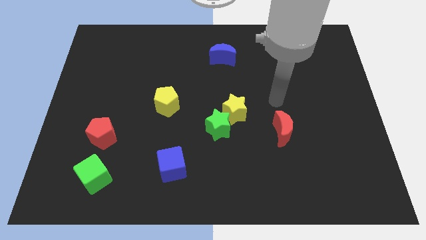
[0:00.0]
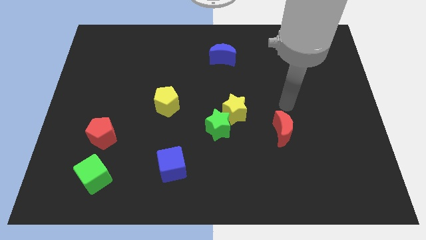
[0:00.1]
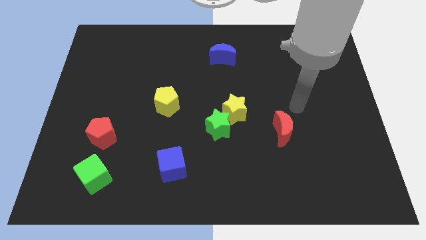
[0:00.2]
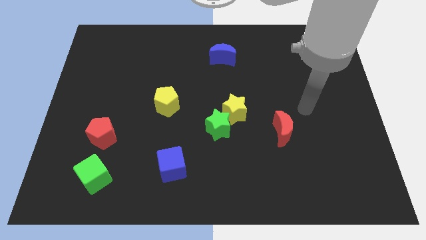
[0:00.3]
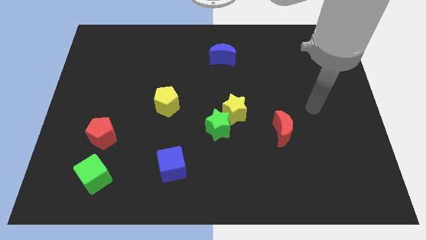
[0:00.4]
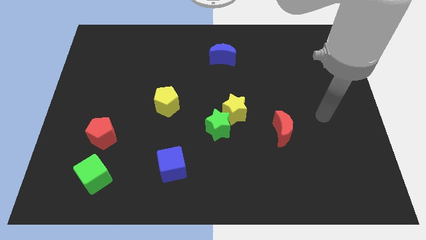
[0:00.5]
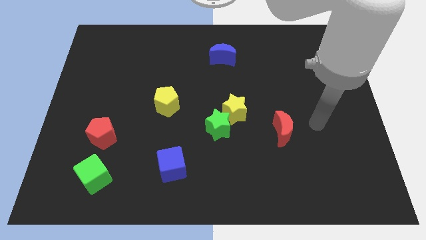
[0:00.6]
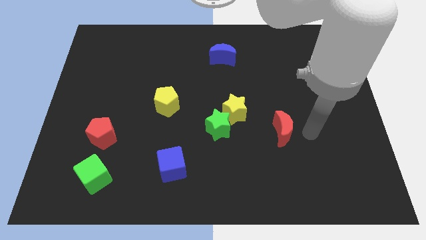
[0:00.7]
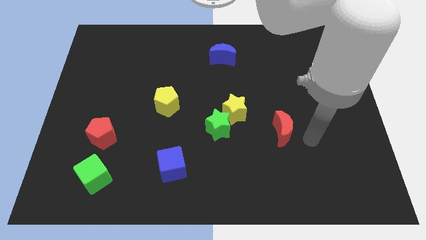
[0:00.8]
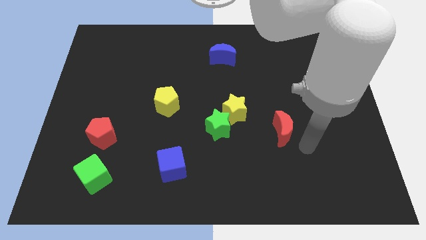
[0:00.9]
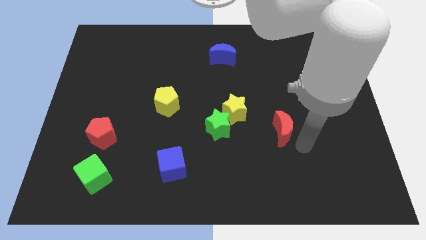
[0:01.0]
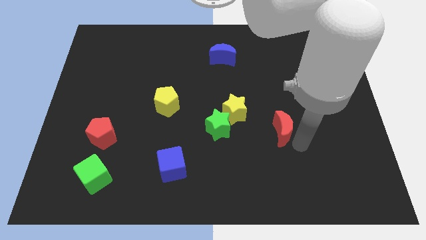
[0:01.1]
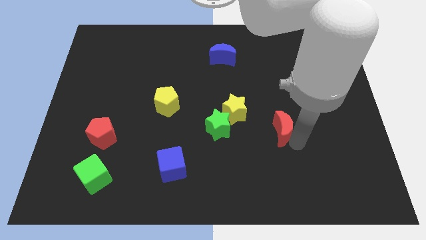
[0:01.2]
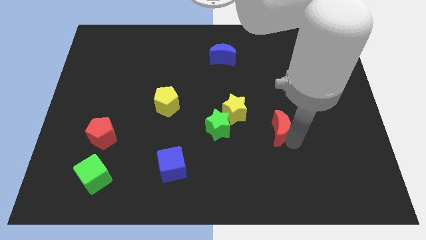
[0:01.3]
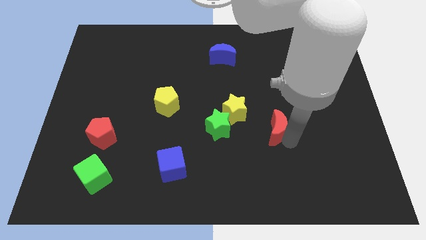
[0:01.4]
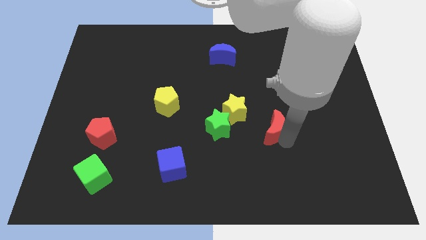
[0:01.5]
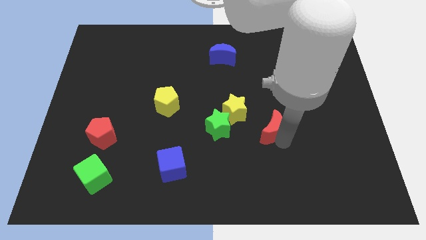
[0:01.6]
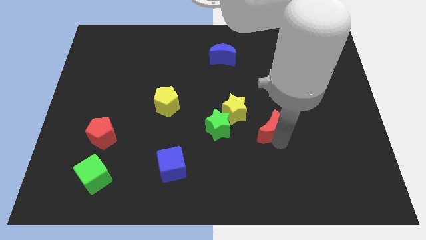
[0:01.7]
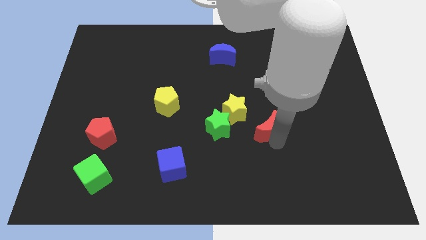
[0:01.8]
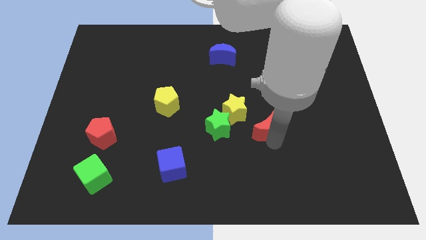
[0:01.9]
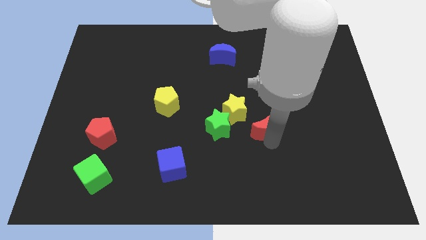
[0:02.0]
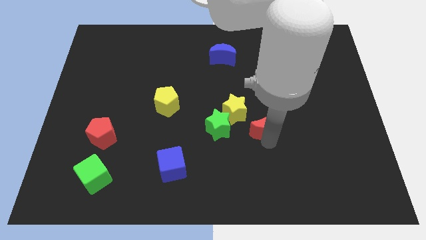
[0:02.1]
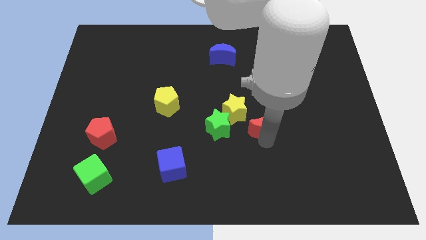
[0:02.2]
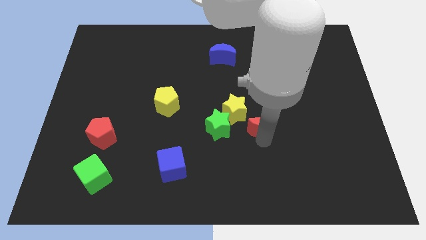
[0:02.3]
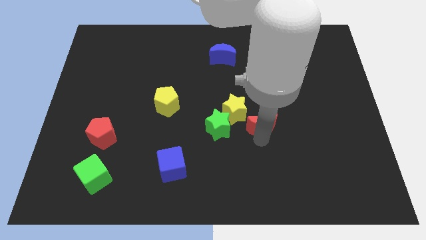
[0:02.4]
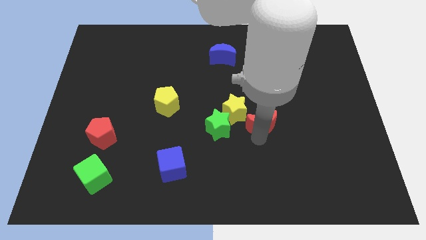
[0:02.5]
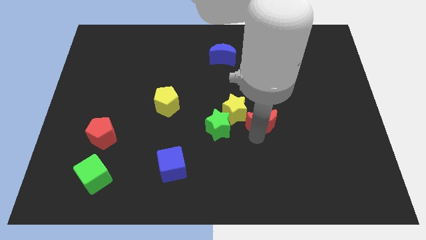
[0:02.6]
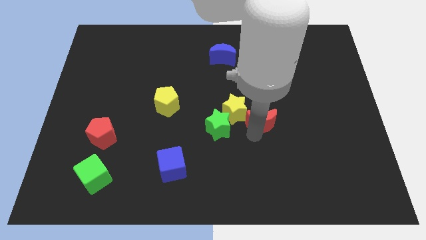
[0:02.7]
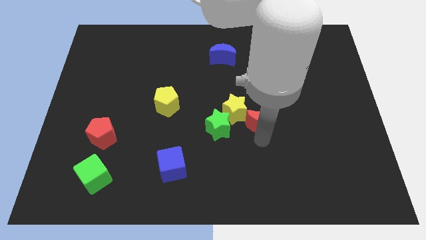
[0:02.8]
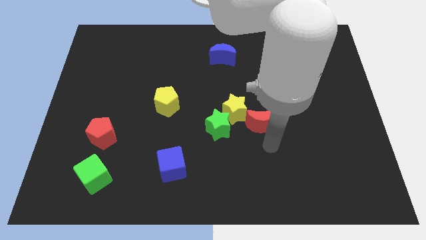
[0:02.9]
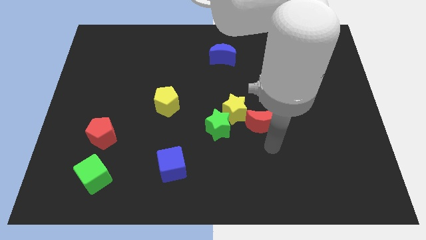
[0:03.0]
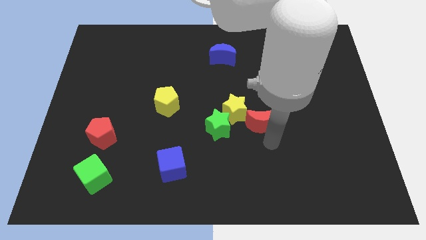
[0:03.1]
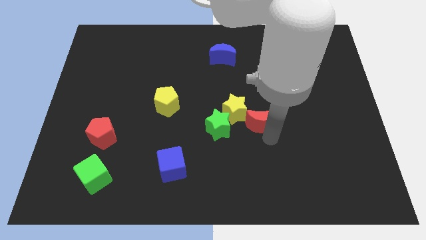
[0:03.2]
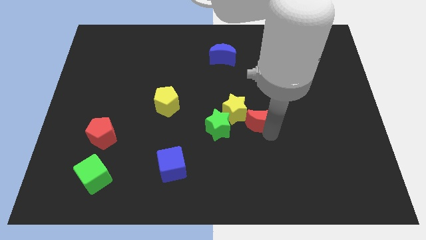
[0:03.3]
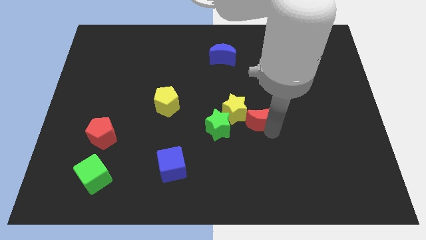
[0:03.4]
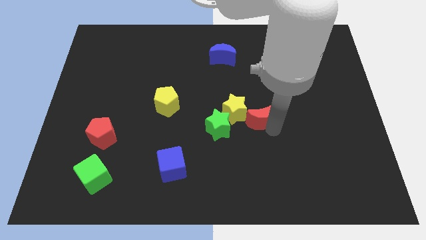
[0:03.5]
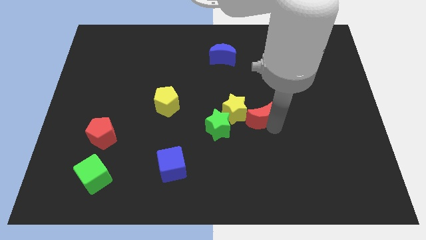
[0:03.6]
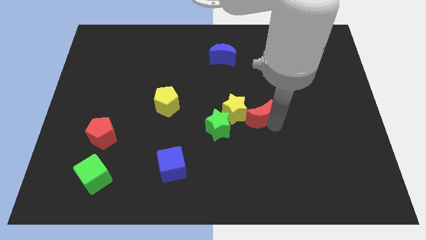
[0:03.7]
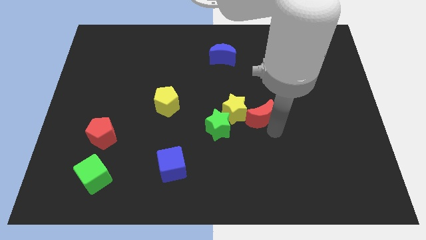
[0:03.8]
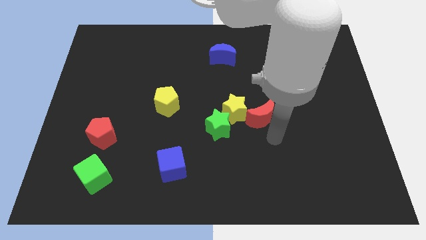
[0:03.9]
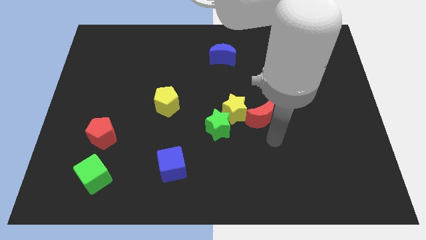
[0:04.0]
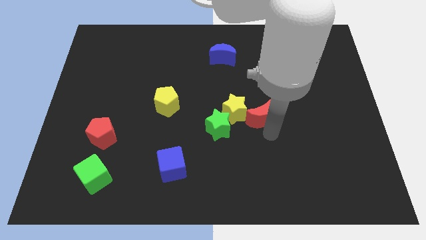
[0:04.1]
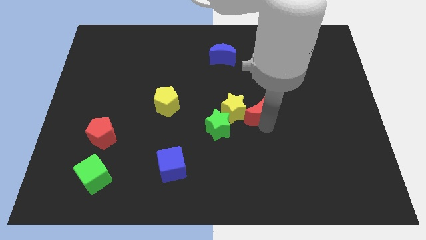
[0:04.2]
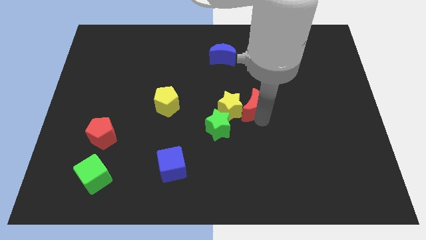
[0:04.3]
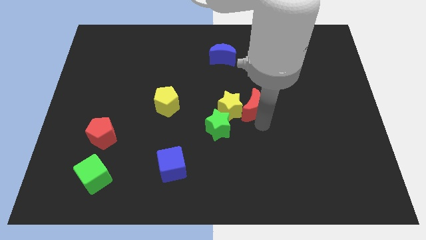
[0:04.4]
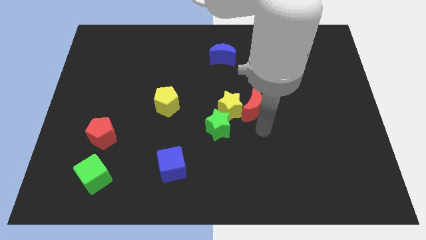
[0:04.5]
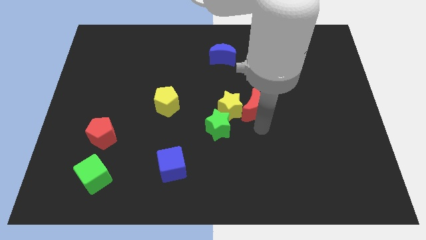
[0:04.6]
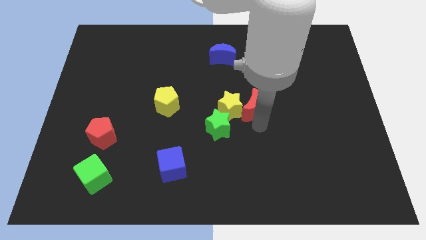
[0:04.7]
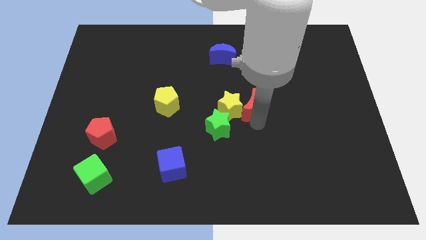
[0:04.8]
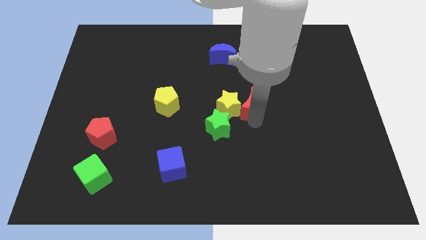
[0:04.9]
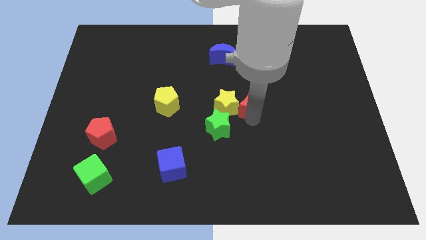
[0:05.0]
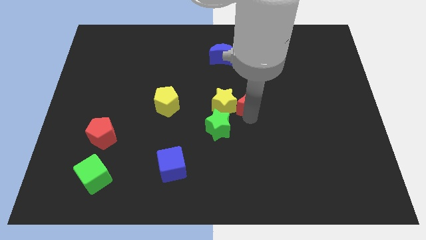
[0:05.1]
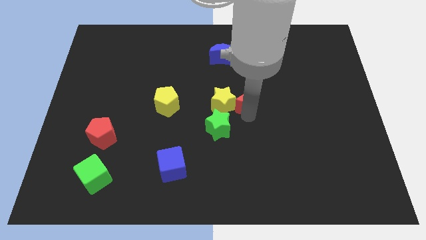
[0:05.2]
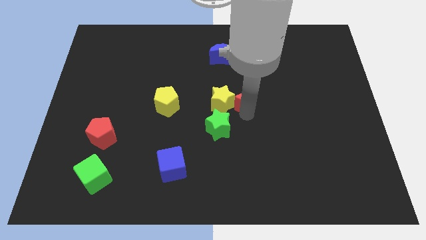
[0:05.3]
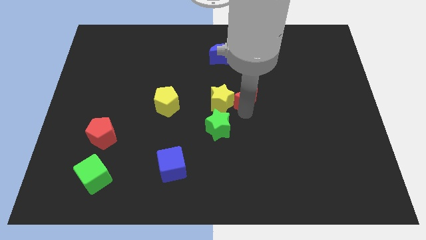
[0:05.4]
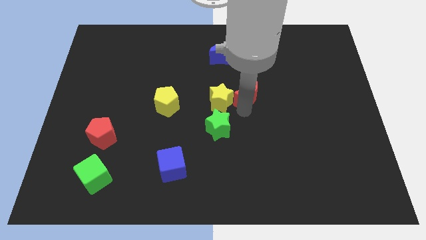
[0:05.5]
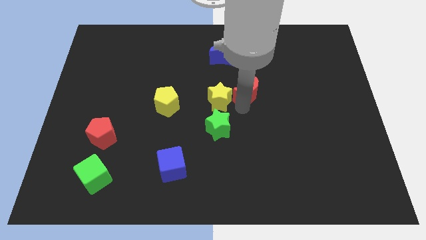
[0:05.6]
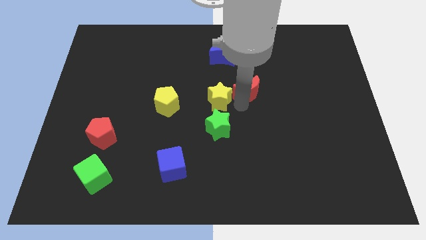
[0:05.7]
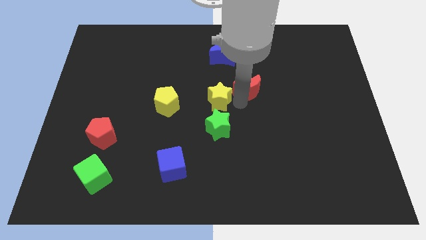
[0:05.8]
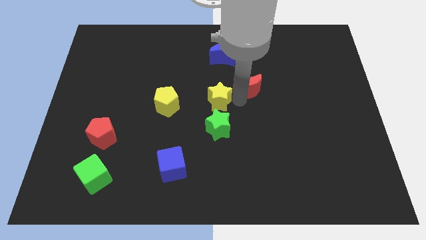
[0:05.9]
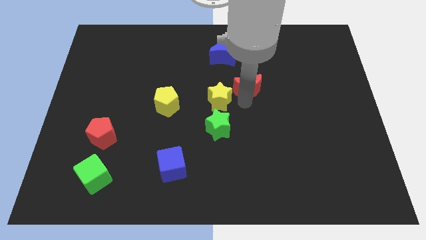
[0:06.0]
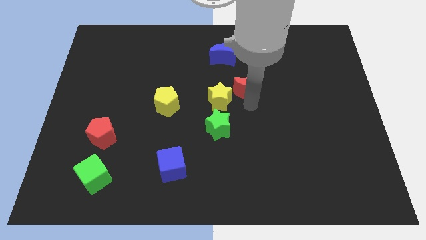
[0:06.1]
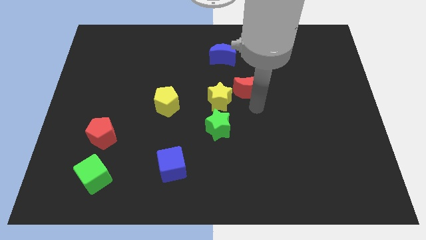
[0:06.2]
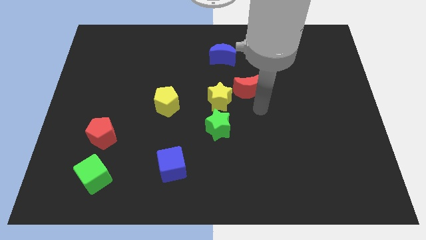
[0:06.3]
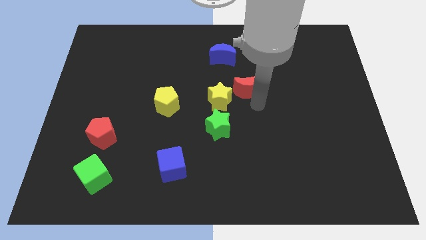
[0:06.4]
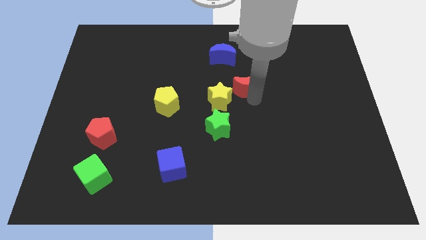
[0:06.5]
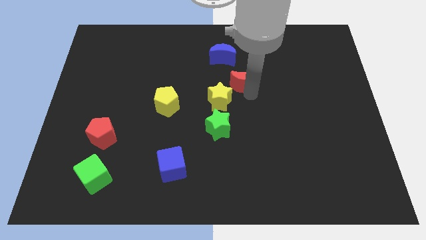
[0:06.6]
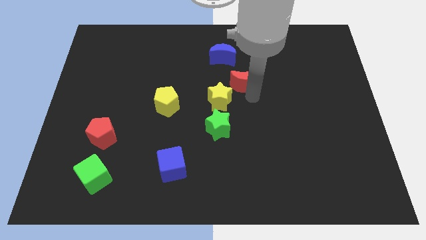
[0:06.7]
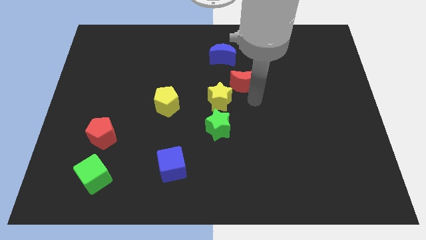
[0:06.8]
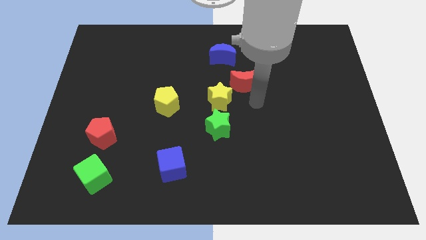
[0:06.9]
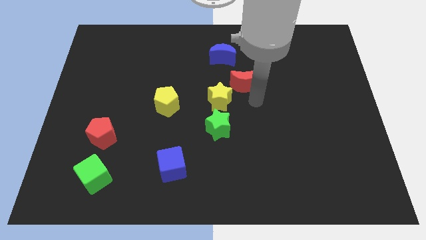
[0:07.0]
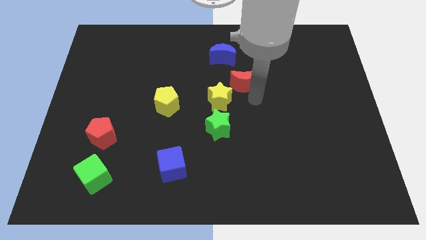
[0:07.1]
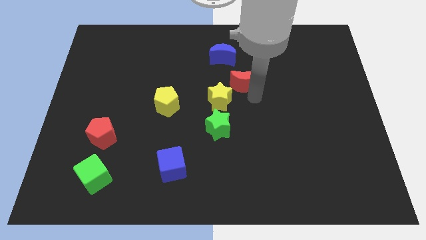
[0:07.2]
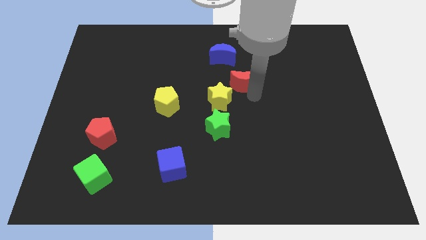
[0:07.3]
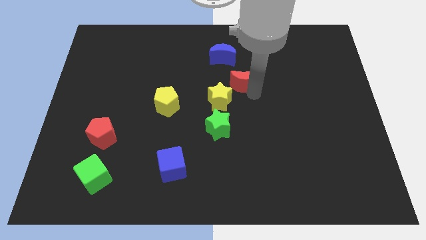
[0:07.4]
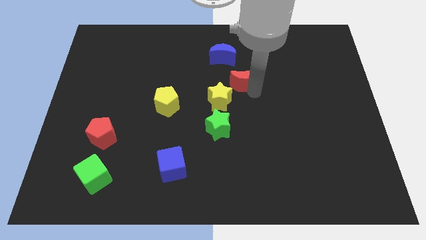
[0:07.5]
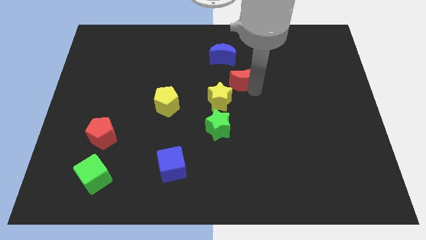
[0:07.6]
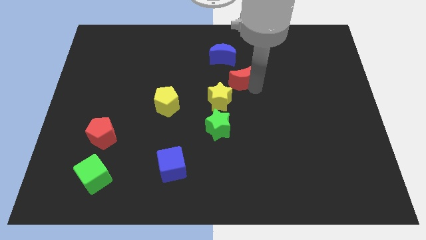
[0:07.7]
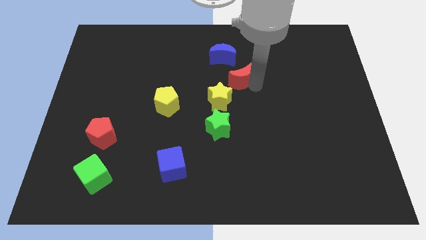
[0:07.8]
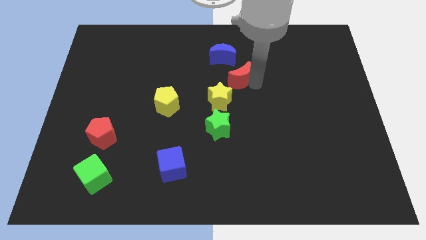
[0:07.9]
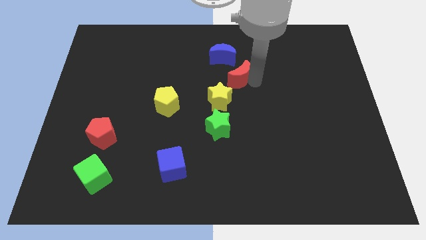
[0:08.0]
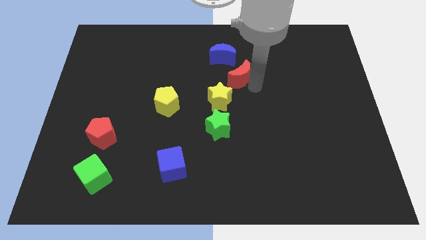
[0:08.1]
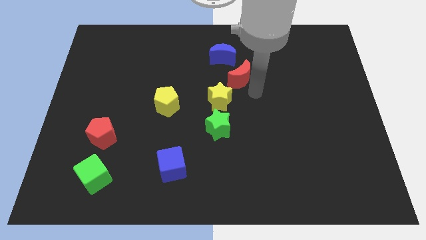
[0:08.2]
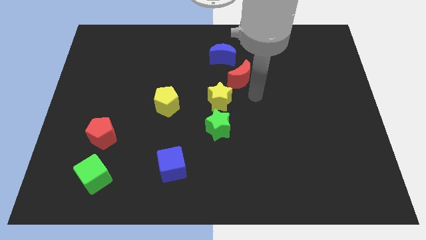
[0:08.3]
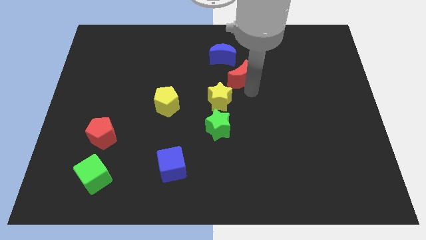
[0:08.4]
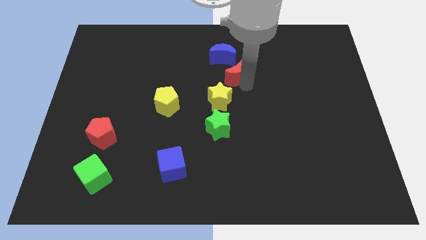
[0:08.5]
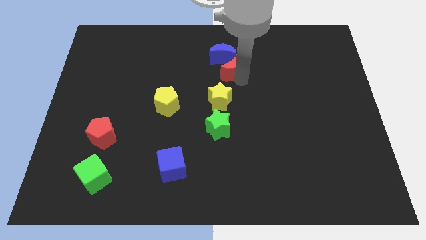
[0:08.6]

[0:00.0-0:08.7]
push the red moon next to the blue moon
